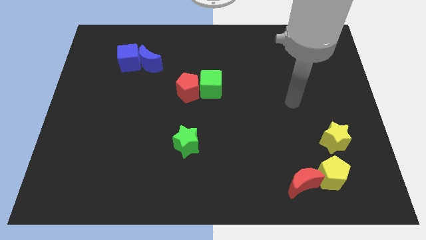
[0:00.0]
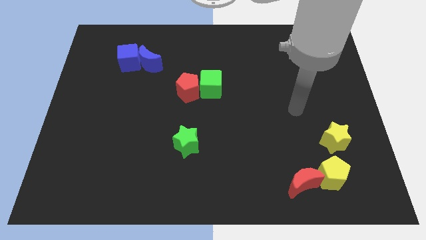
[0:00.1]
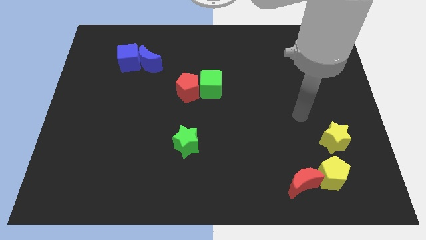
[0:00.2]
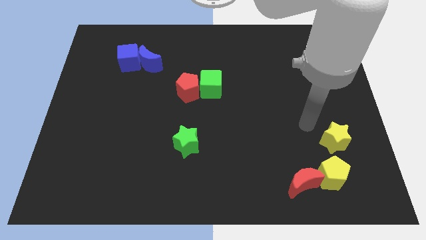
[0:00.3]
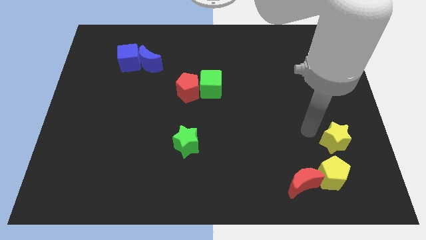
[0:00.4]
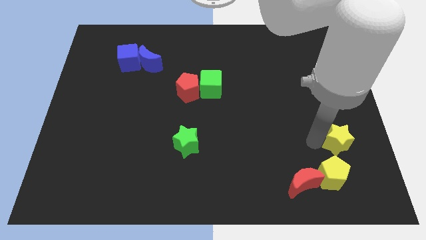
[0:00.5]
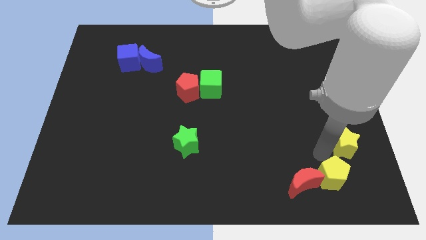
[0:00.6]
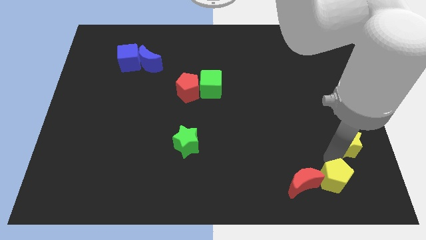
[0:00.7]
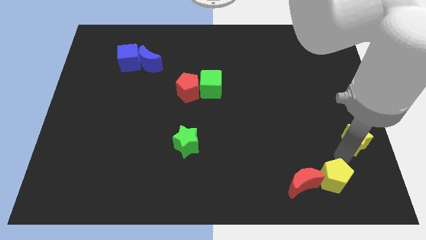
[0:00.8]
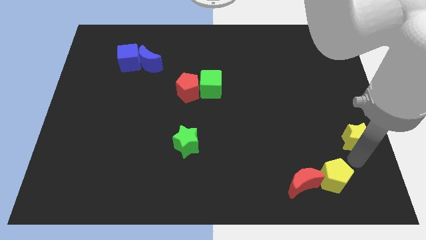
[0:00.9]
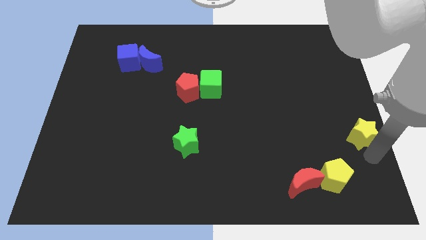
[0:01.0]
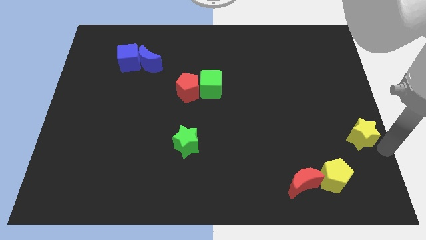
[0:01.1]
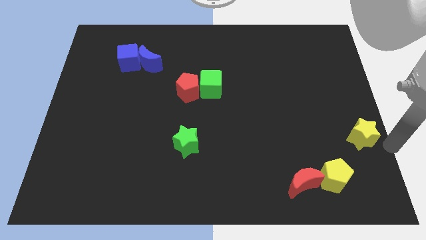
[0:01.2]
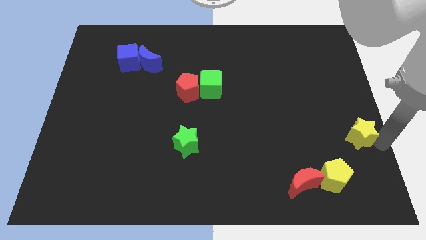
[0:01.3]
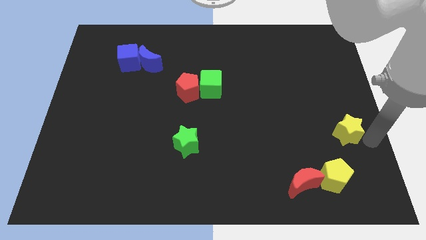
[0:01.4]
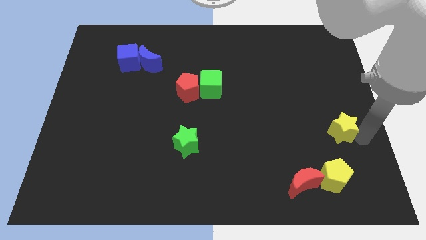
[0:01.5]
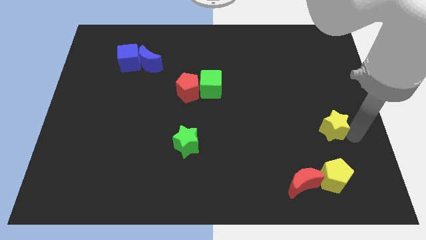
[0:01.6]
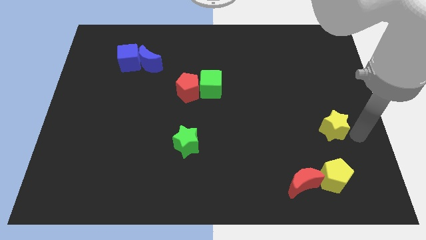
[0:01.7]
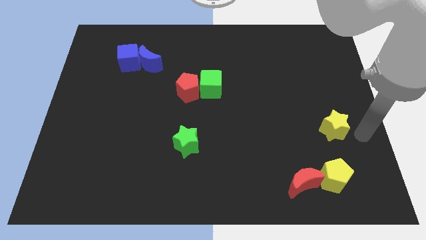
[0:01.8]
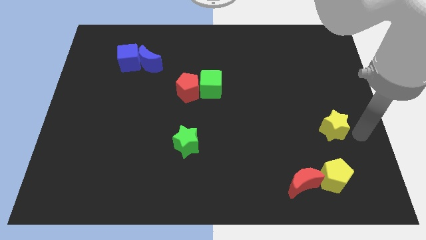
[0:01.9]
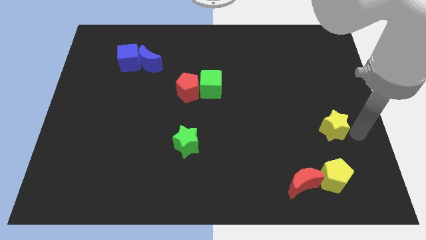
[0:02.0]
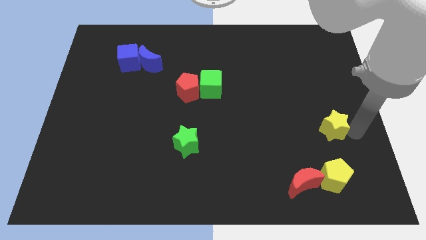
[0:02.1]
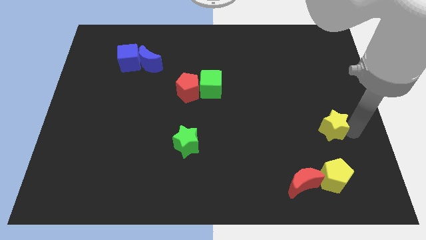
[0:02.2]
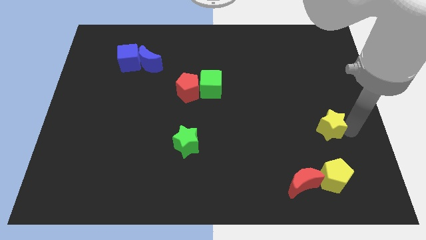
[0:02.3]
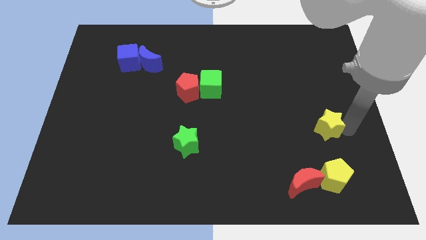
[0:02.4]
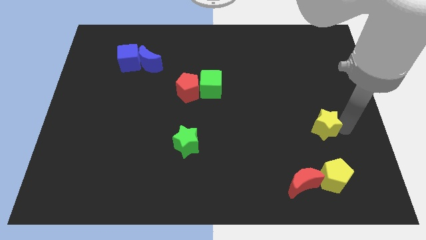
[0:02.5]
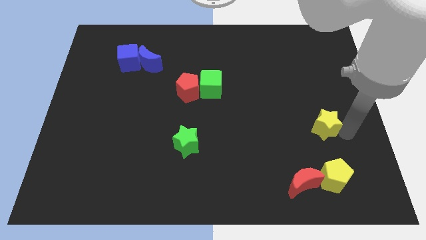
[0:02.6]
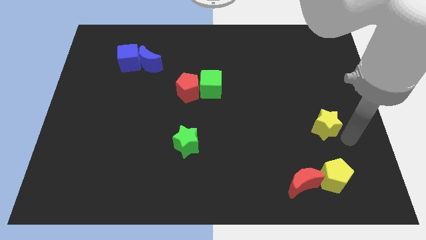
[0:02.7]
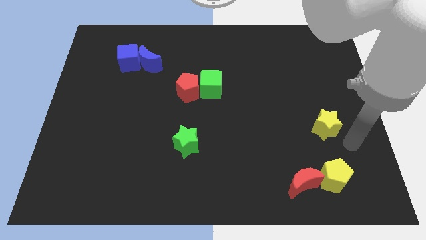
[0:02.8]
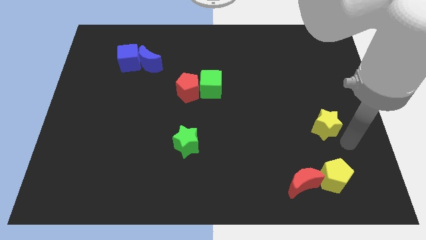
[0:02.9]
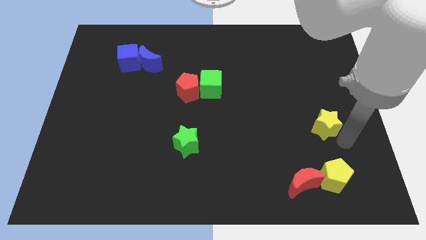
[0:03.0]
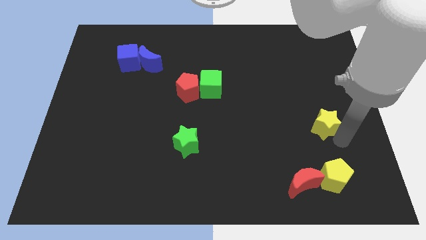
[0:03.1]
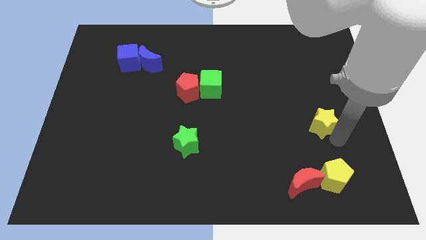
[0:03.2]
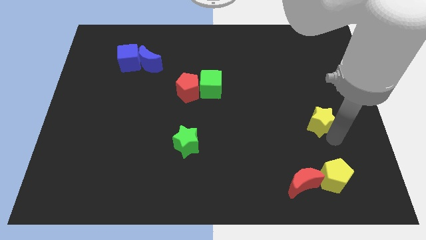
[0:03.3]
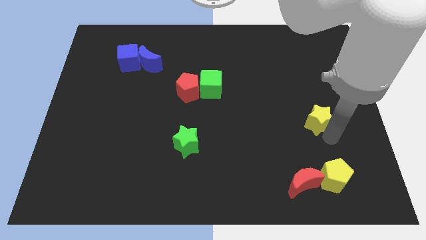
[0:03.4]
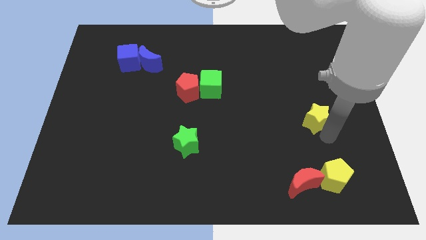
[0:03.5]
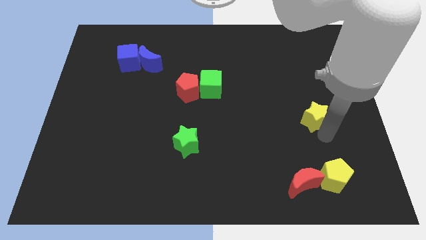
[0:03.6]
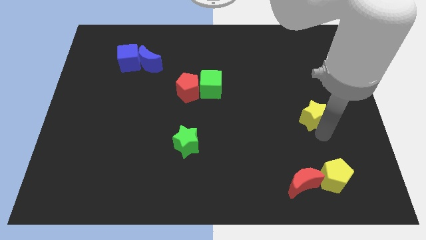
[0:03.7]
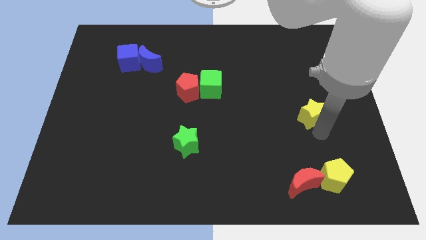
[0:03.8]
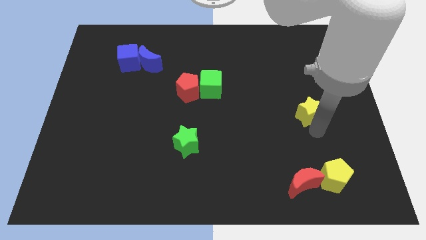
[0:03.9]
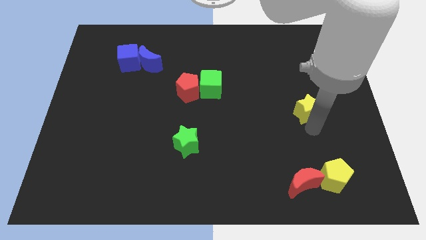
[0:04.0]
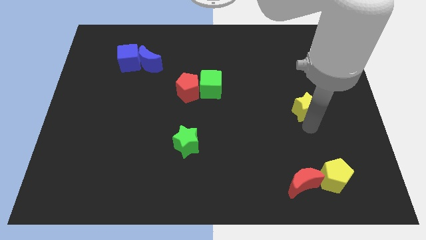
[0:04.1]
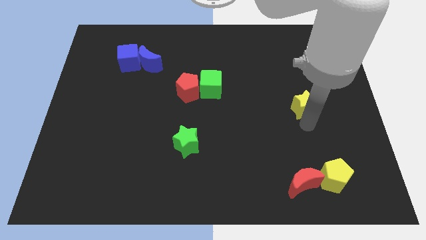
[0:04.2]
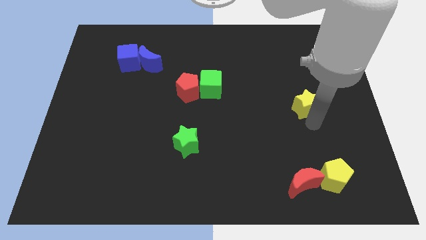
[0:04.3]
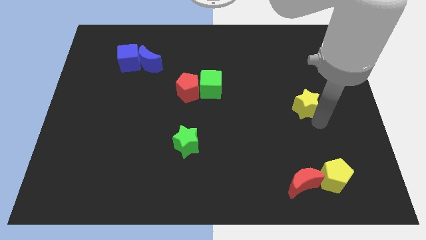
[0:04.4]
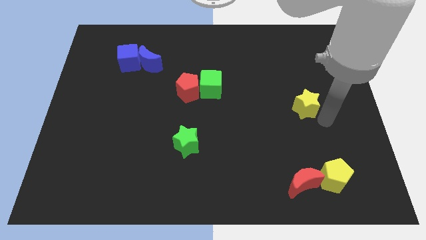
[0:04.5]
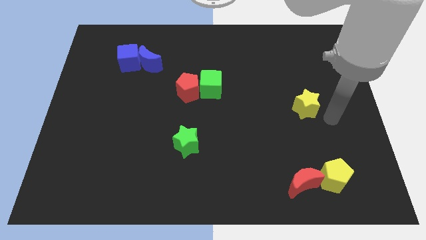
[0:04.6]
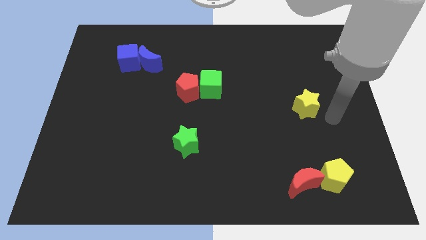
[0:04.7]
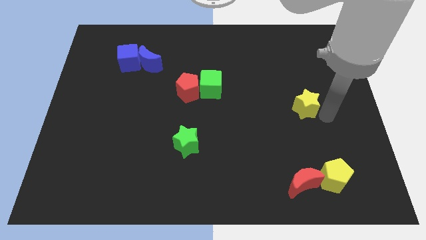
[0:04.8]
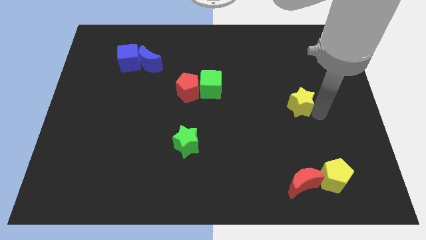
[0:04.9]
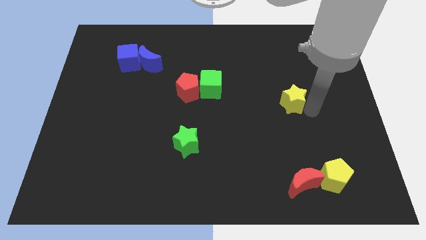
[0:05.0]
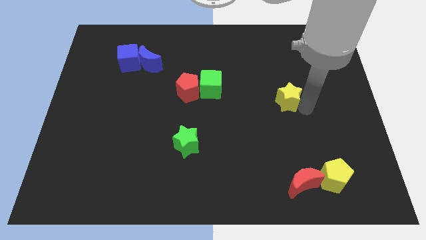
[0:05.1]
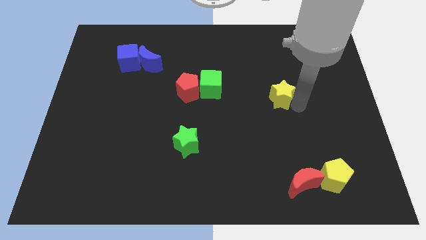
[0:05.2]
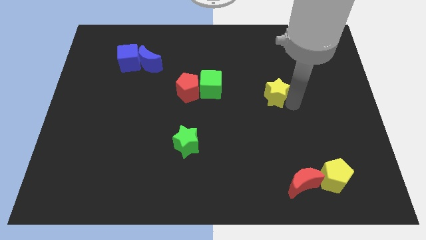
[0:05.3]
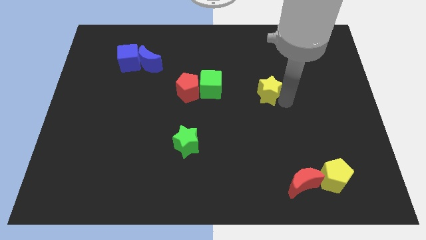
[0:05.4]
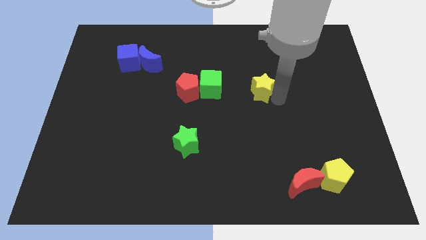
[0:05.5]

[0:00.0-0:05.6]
push the yellow star upwards and left diagonally

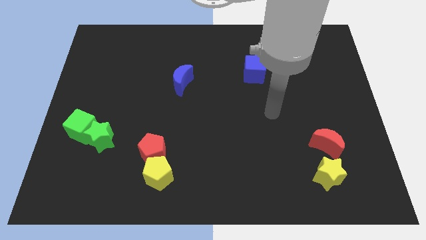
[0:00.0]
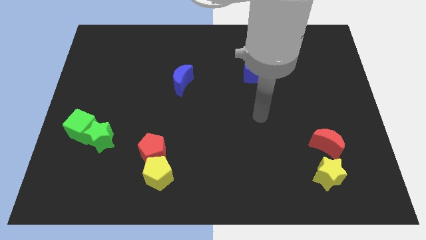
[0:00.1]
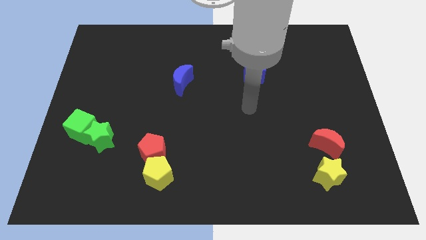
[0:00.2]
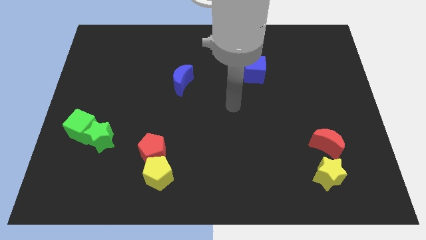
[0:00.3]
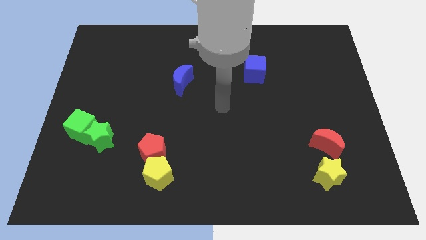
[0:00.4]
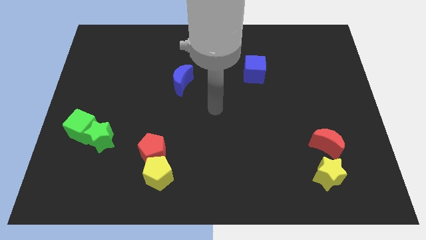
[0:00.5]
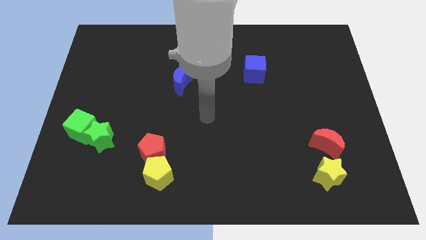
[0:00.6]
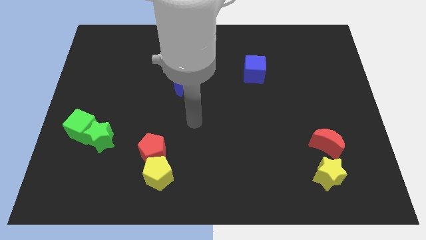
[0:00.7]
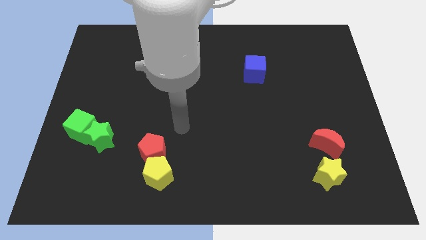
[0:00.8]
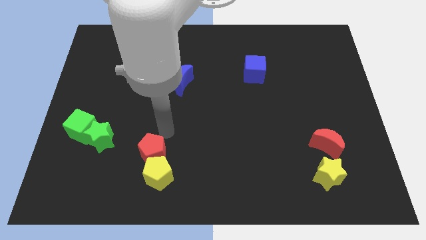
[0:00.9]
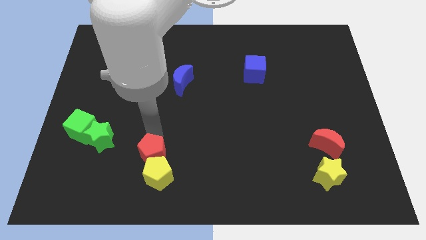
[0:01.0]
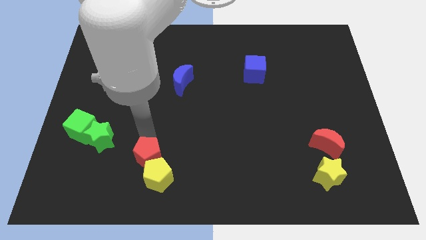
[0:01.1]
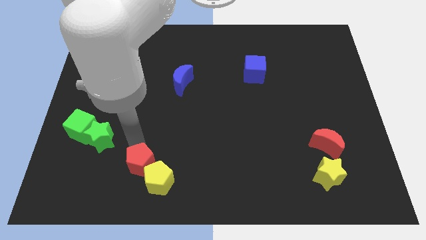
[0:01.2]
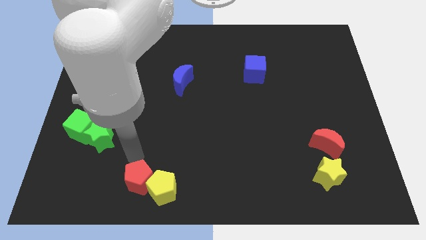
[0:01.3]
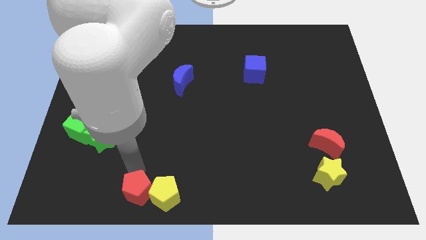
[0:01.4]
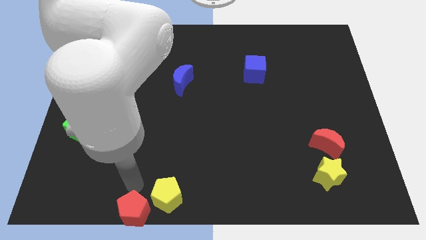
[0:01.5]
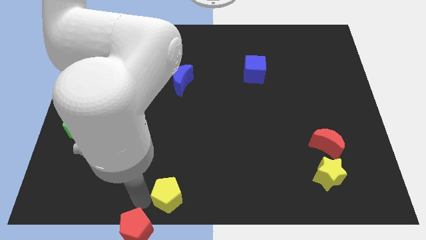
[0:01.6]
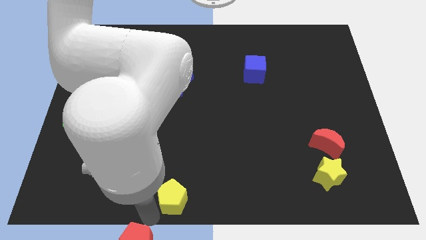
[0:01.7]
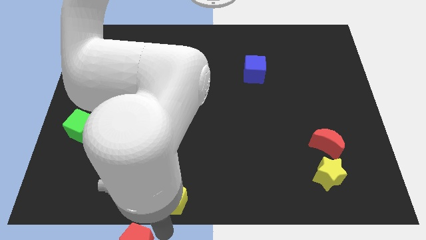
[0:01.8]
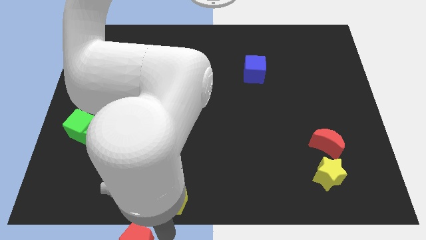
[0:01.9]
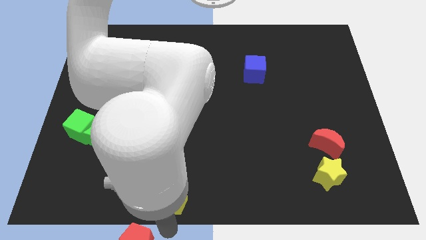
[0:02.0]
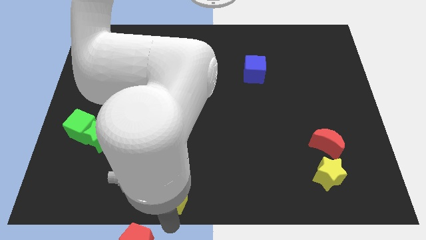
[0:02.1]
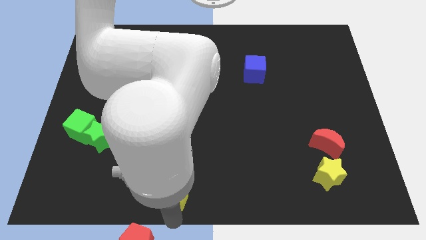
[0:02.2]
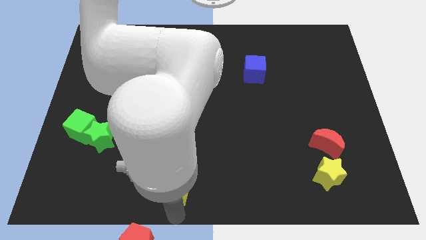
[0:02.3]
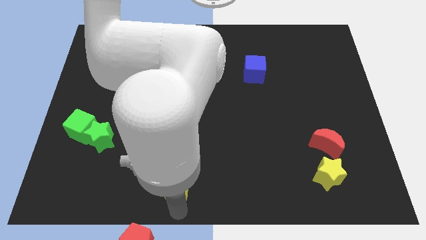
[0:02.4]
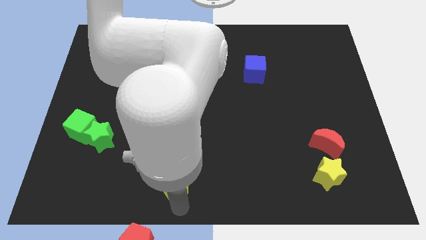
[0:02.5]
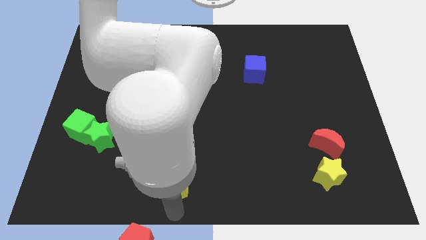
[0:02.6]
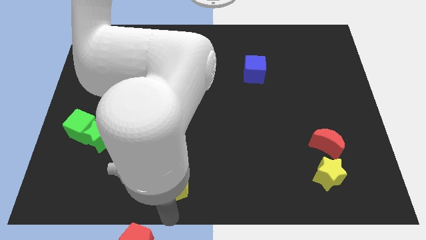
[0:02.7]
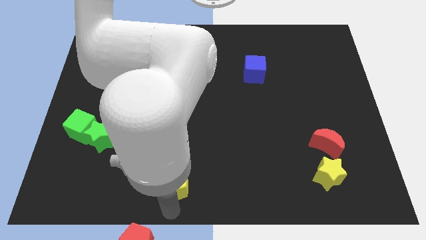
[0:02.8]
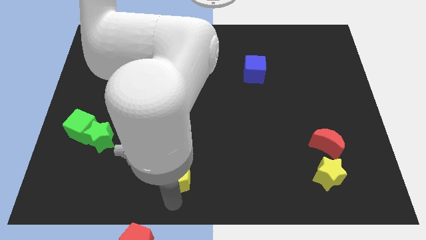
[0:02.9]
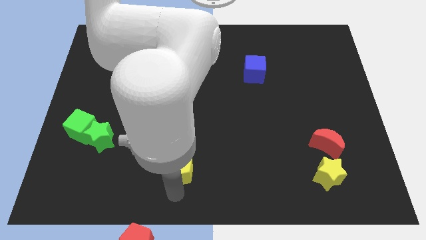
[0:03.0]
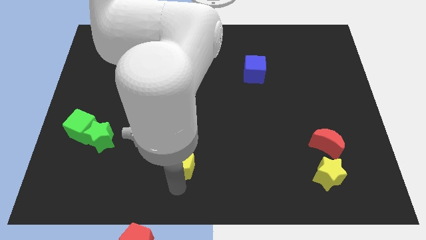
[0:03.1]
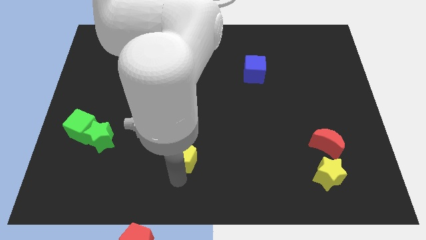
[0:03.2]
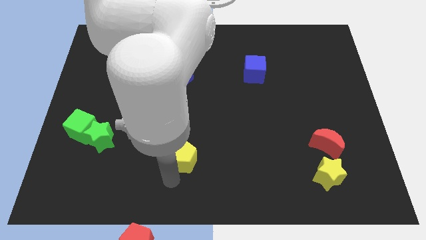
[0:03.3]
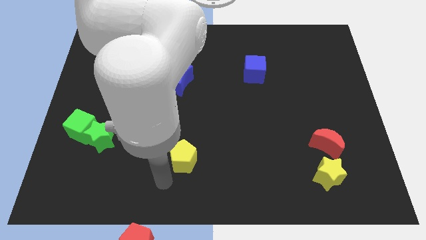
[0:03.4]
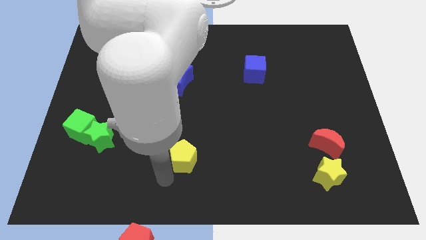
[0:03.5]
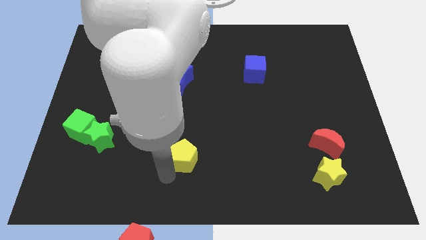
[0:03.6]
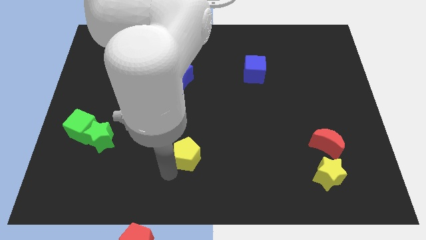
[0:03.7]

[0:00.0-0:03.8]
slightly slide the yellow pentagon diagonally upwards and to the right
